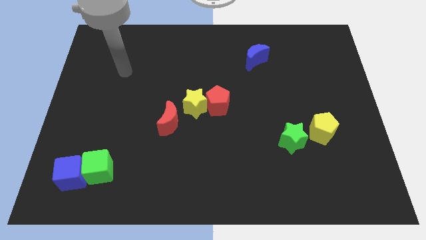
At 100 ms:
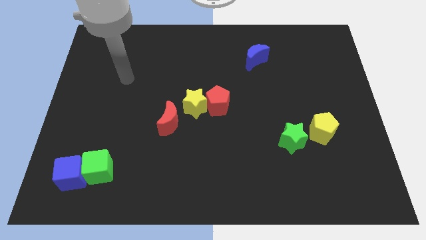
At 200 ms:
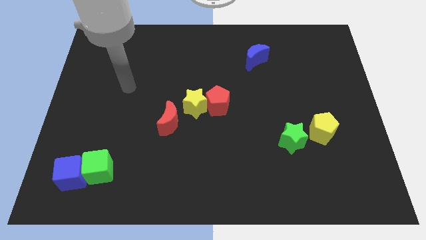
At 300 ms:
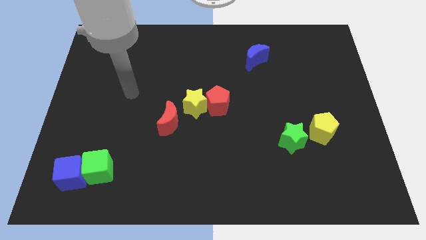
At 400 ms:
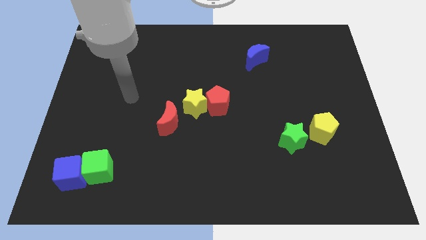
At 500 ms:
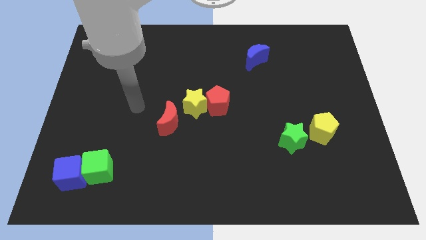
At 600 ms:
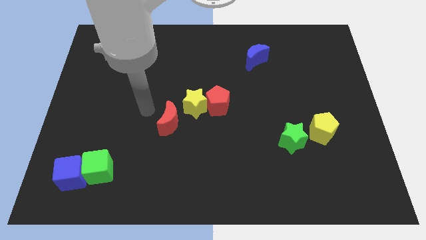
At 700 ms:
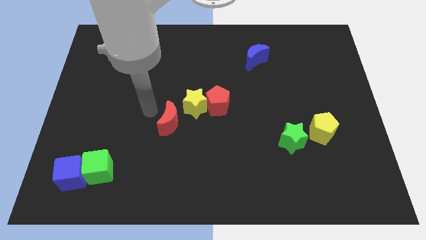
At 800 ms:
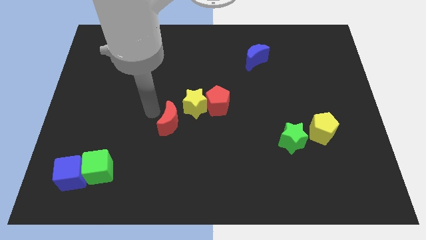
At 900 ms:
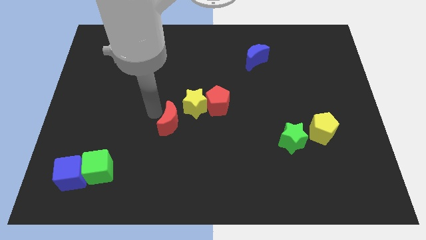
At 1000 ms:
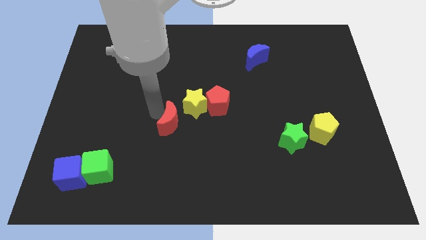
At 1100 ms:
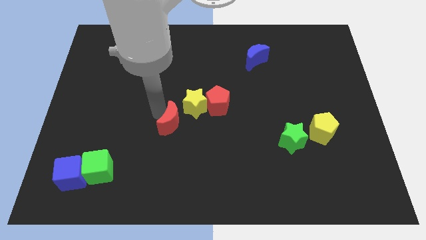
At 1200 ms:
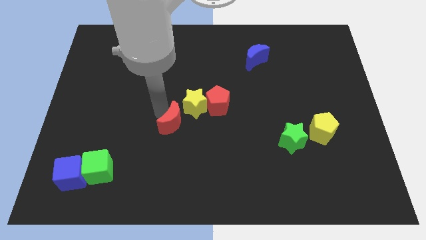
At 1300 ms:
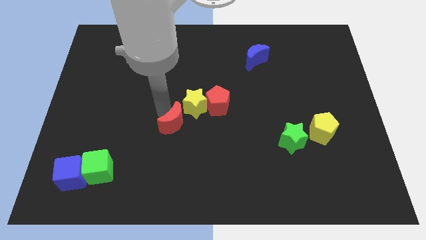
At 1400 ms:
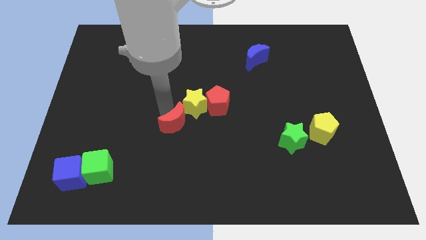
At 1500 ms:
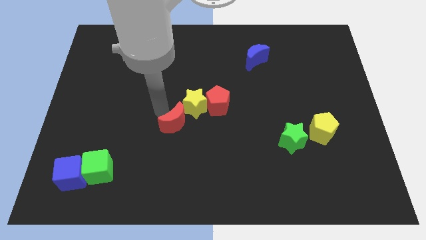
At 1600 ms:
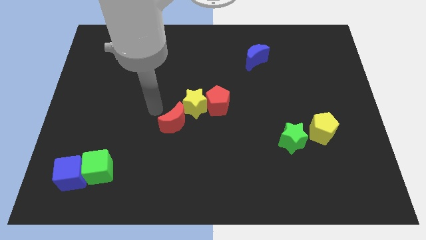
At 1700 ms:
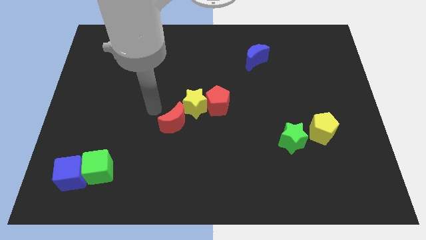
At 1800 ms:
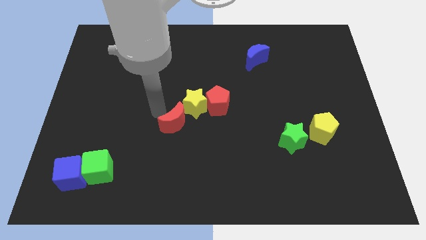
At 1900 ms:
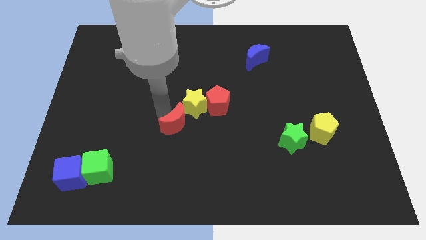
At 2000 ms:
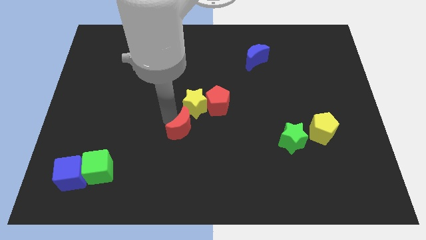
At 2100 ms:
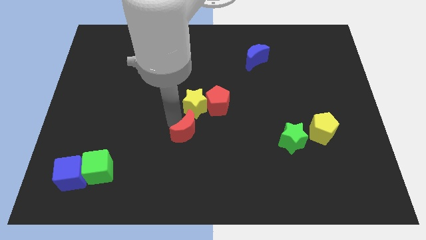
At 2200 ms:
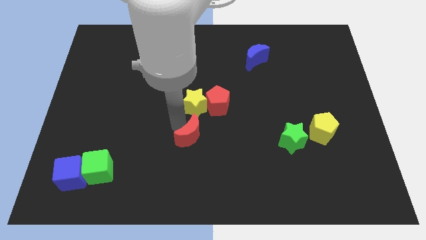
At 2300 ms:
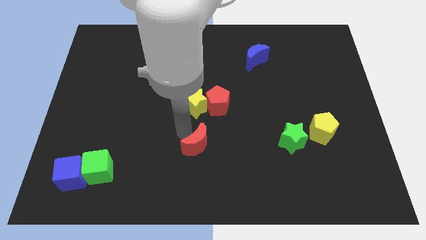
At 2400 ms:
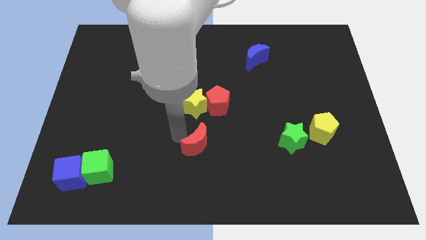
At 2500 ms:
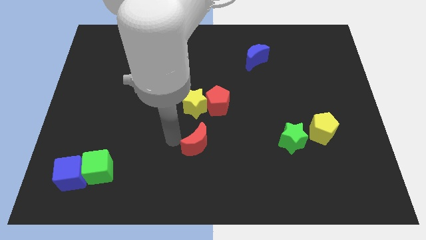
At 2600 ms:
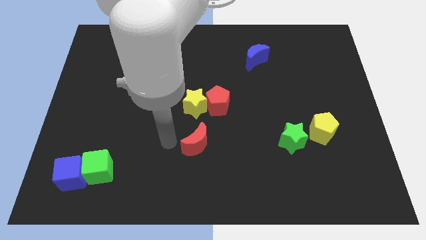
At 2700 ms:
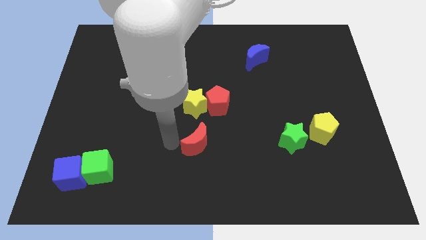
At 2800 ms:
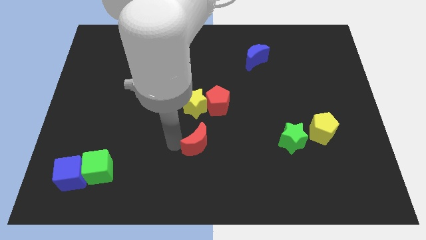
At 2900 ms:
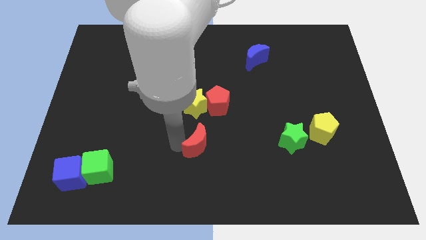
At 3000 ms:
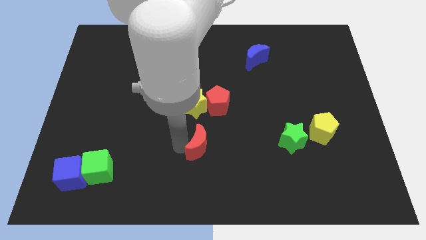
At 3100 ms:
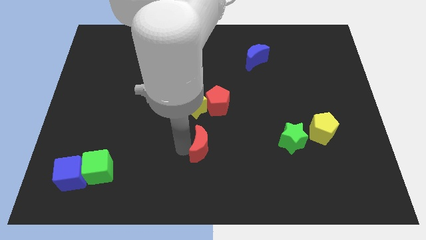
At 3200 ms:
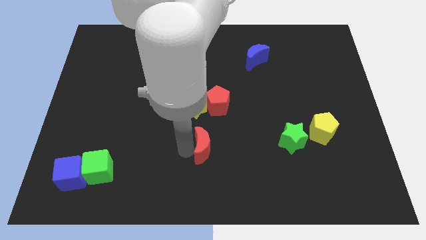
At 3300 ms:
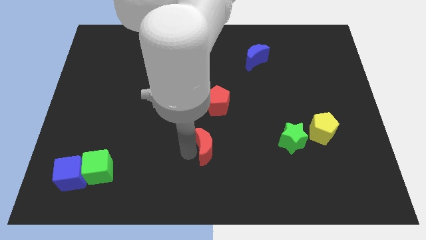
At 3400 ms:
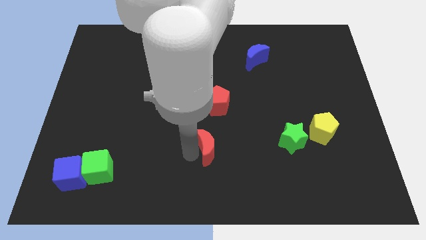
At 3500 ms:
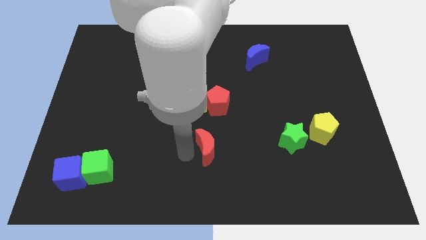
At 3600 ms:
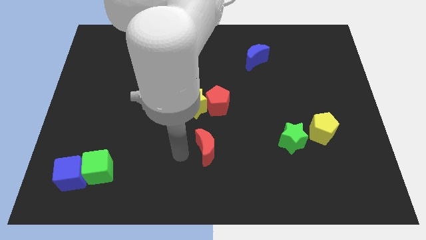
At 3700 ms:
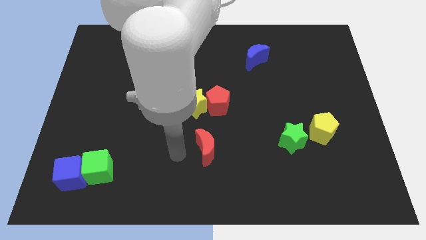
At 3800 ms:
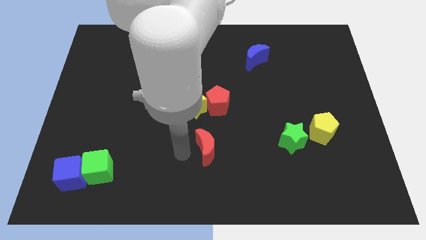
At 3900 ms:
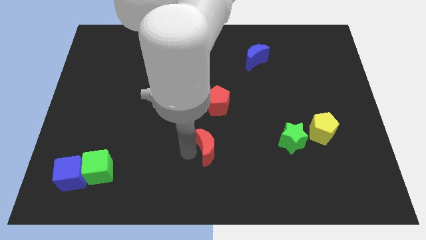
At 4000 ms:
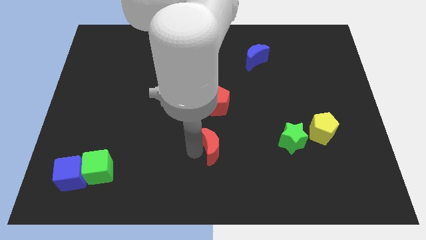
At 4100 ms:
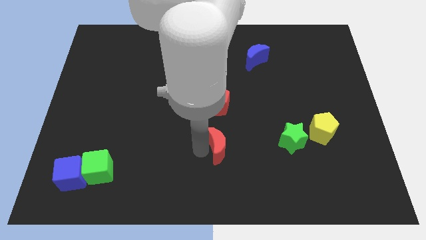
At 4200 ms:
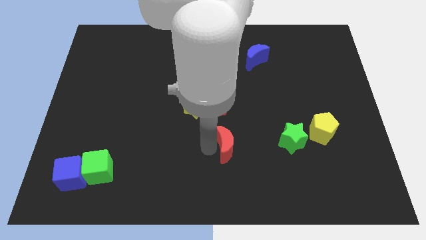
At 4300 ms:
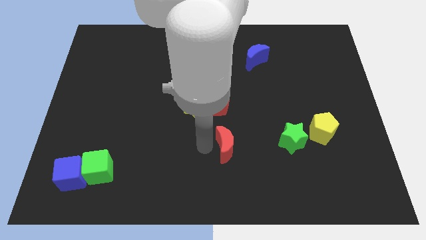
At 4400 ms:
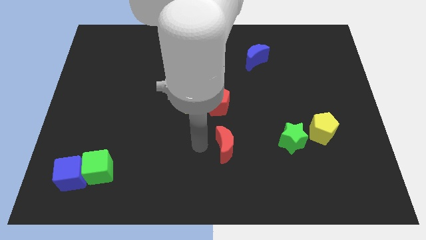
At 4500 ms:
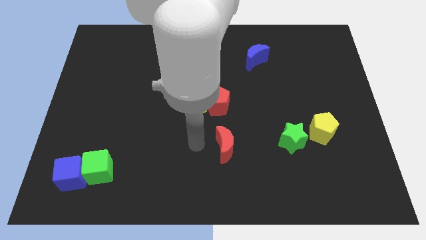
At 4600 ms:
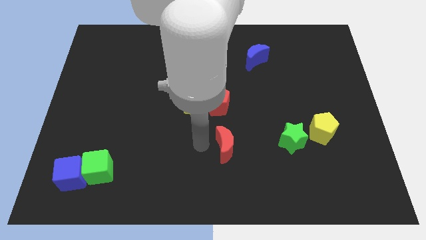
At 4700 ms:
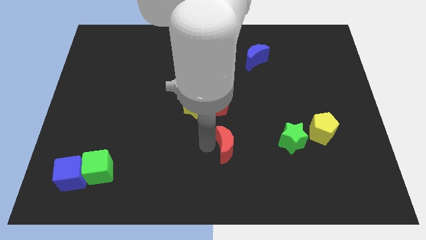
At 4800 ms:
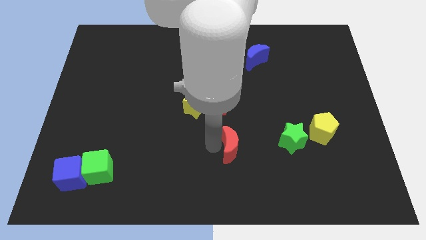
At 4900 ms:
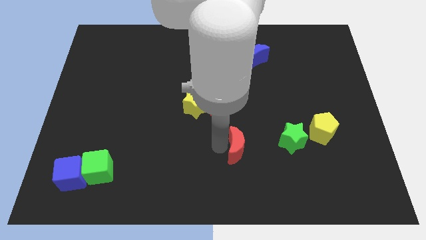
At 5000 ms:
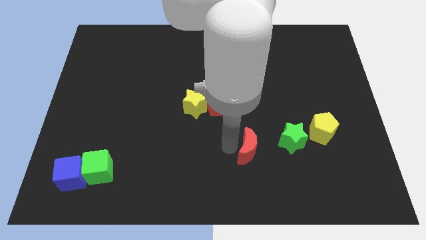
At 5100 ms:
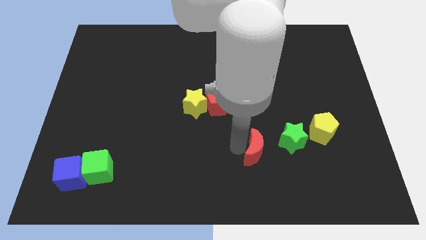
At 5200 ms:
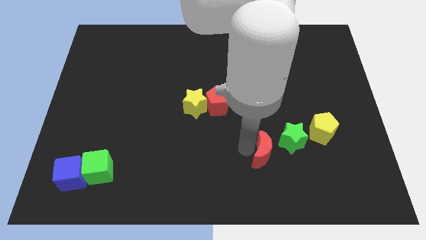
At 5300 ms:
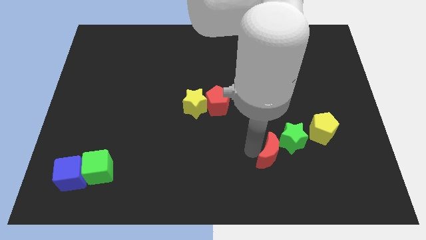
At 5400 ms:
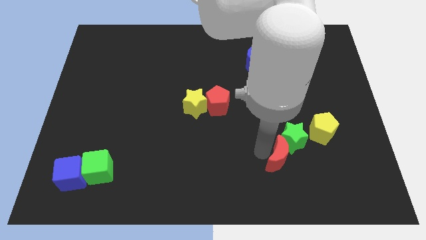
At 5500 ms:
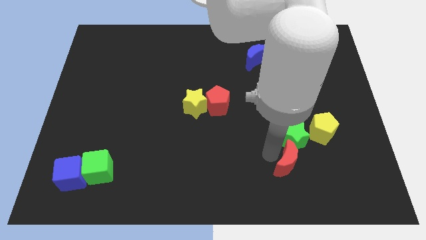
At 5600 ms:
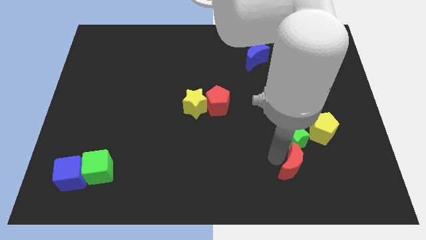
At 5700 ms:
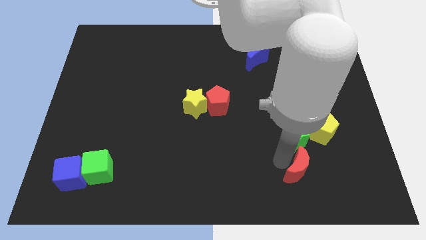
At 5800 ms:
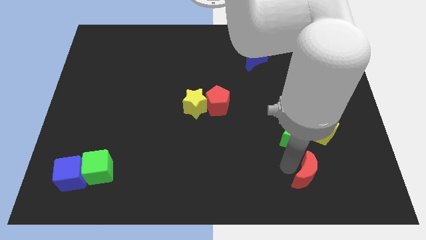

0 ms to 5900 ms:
slide the red moon to the bottom of the yellow pentagon
